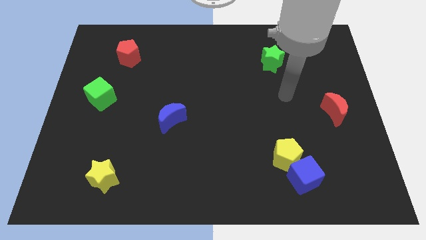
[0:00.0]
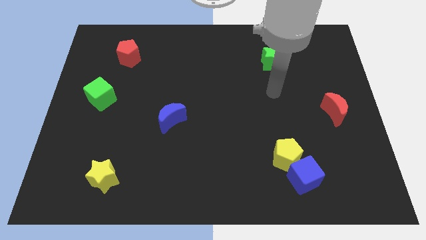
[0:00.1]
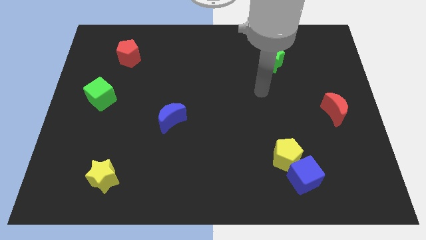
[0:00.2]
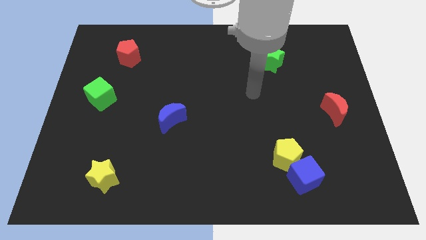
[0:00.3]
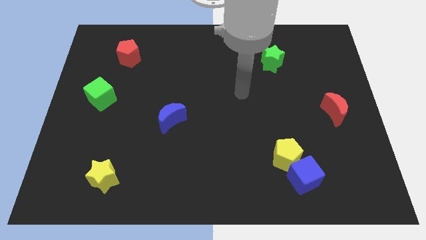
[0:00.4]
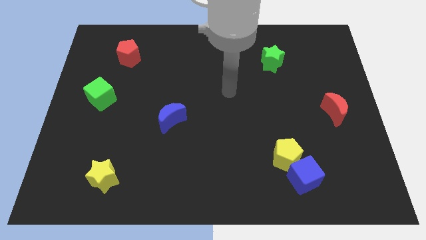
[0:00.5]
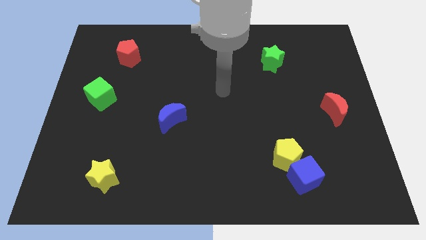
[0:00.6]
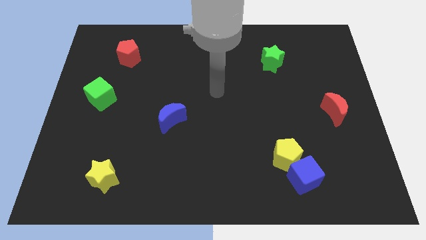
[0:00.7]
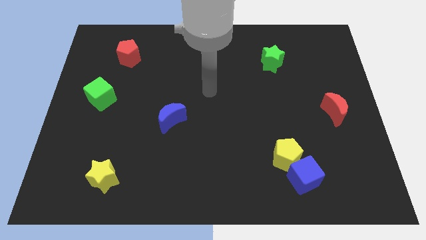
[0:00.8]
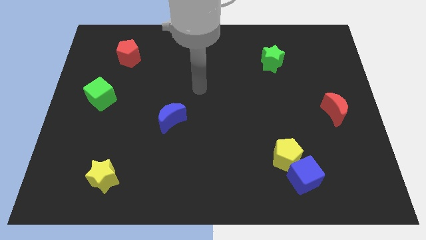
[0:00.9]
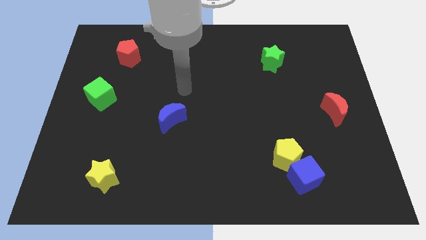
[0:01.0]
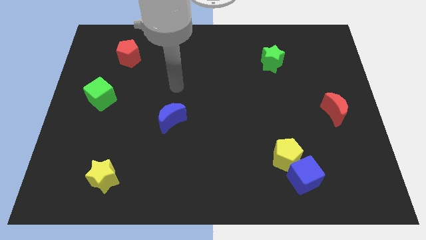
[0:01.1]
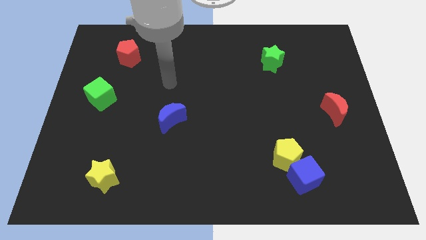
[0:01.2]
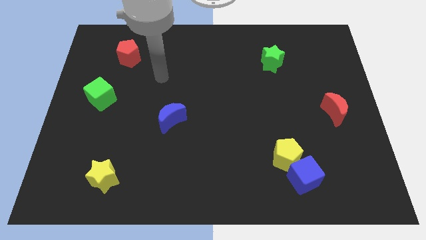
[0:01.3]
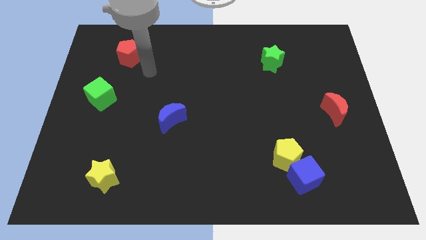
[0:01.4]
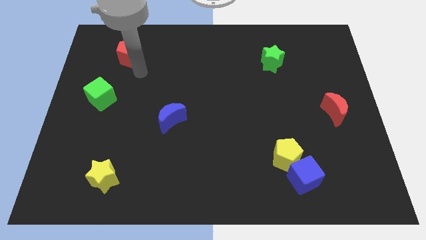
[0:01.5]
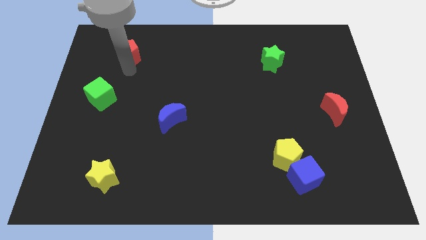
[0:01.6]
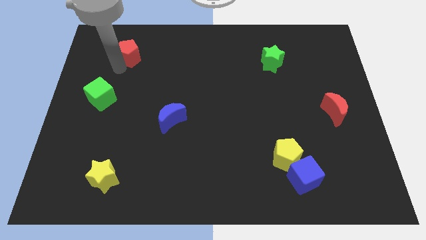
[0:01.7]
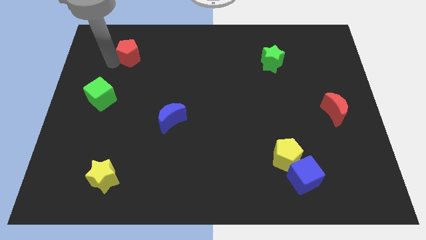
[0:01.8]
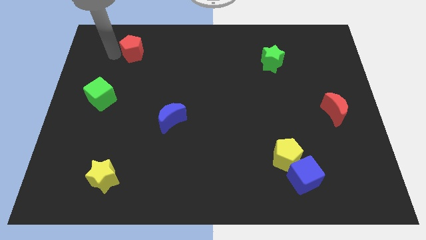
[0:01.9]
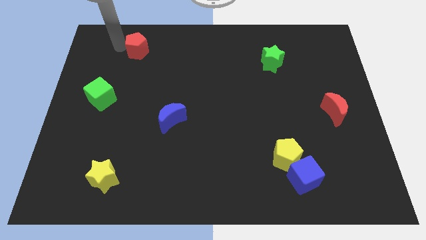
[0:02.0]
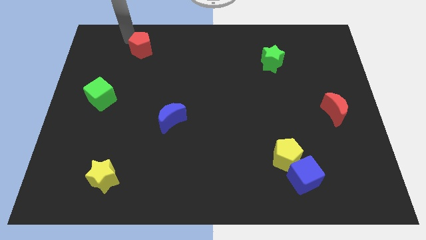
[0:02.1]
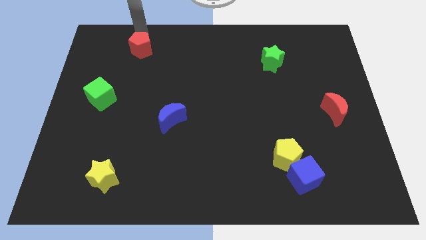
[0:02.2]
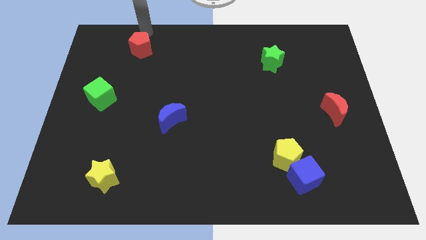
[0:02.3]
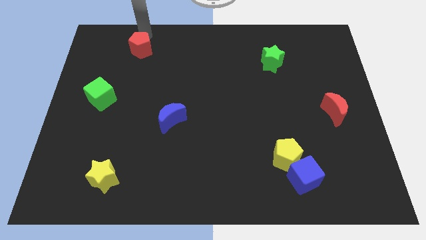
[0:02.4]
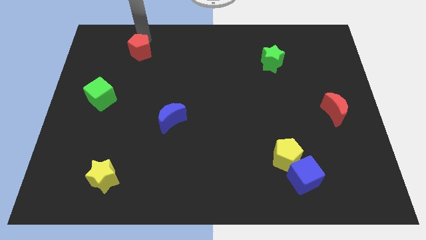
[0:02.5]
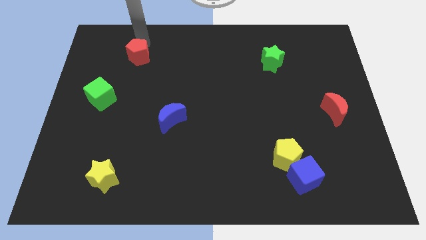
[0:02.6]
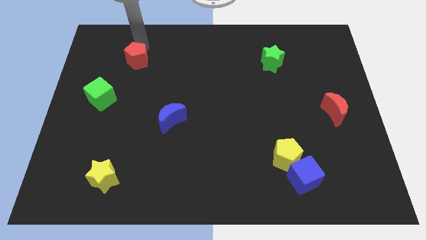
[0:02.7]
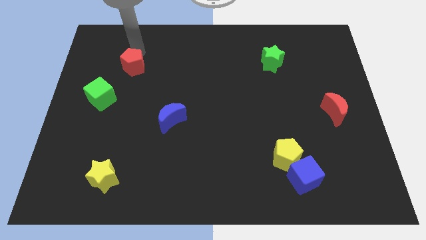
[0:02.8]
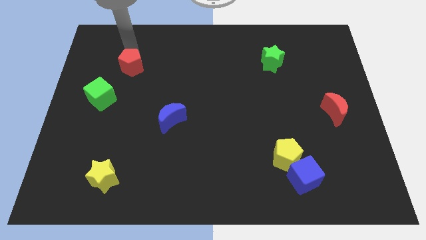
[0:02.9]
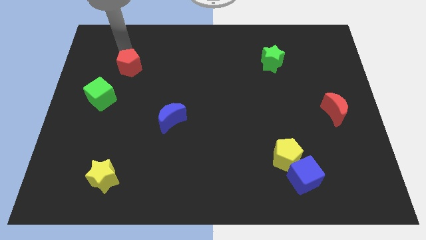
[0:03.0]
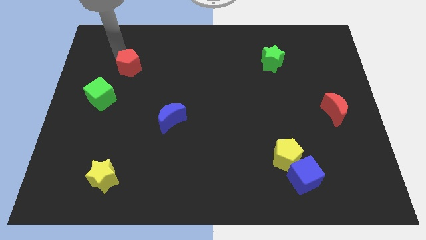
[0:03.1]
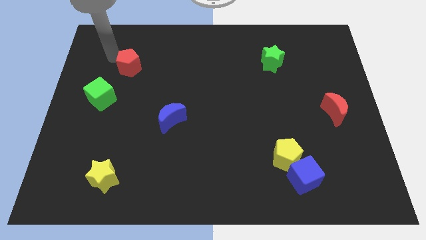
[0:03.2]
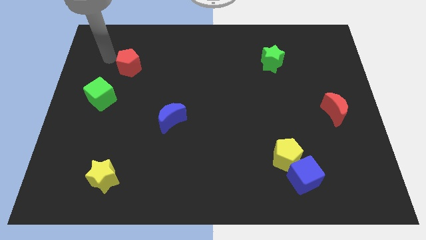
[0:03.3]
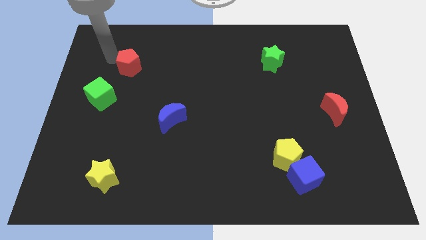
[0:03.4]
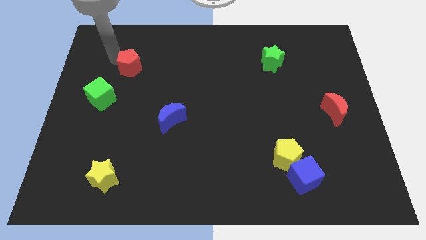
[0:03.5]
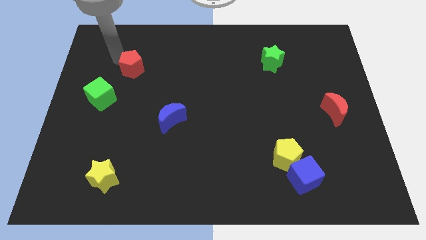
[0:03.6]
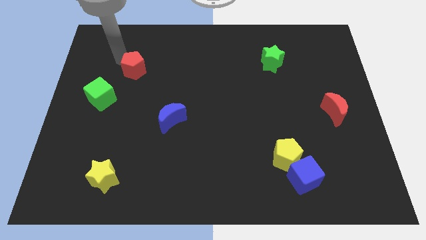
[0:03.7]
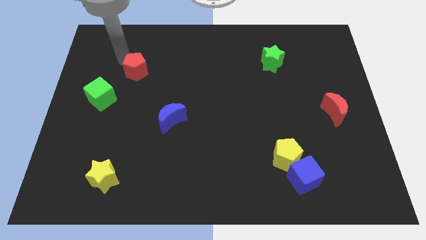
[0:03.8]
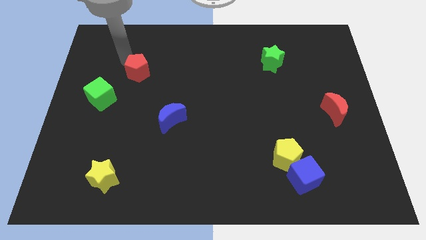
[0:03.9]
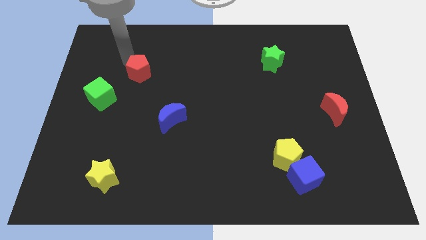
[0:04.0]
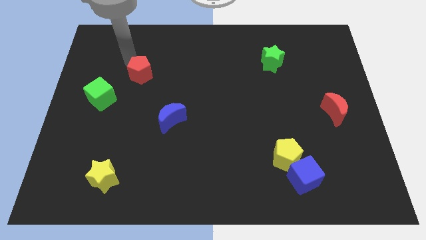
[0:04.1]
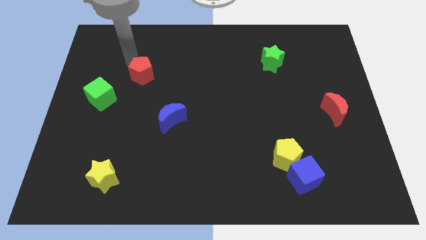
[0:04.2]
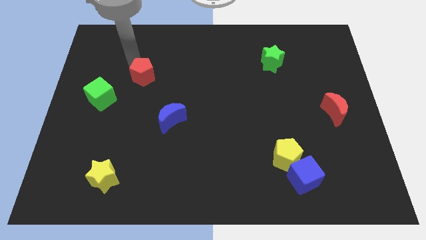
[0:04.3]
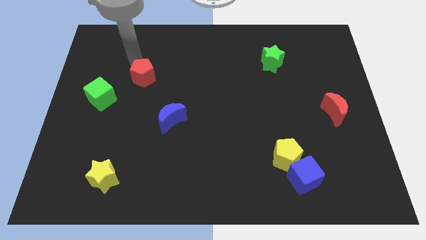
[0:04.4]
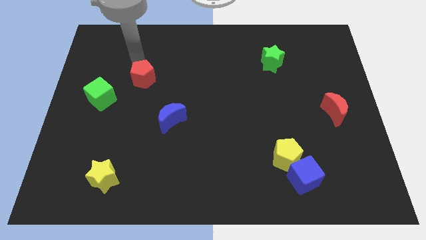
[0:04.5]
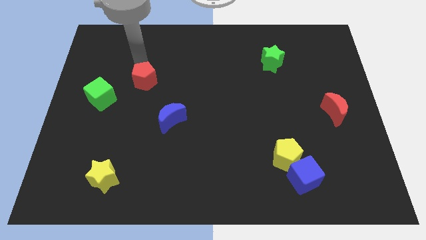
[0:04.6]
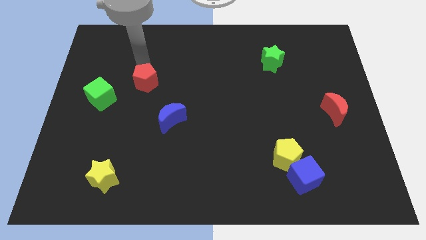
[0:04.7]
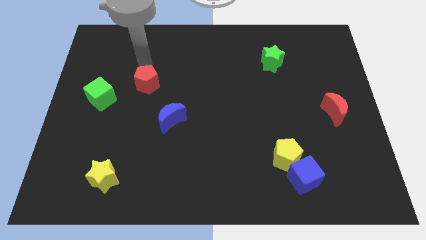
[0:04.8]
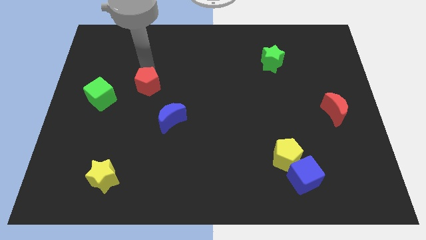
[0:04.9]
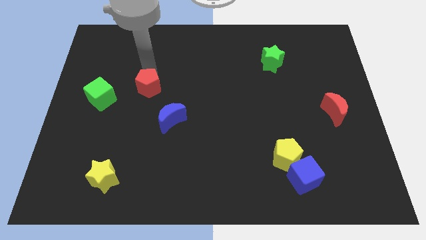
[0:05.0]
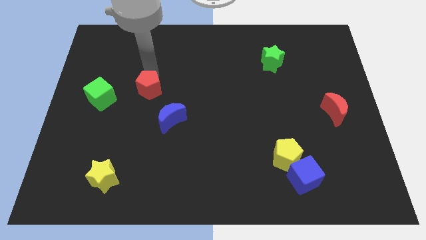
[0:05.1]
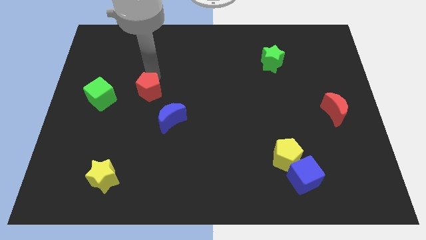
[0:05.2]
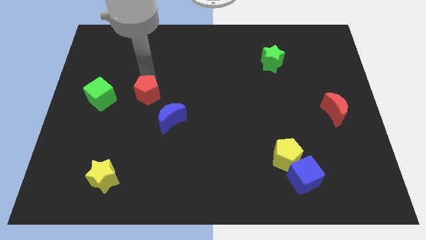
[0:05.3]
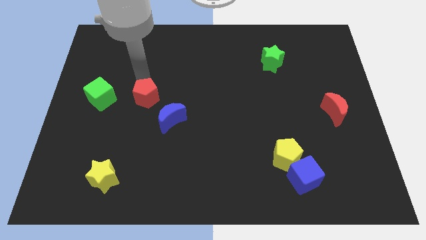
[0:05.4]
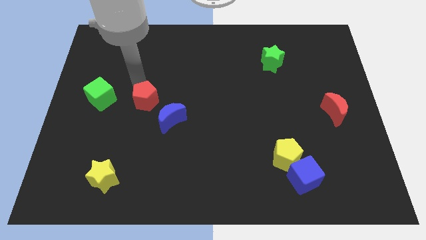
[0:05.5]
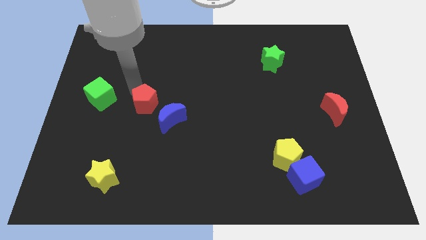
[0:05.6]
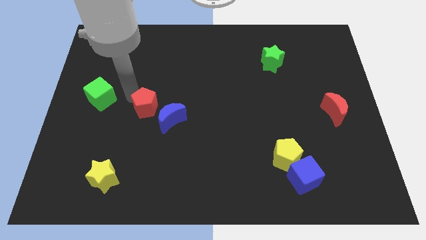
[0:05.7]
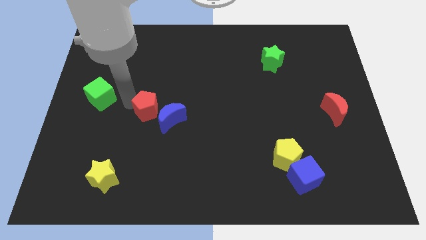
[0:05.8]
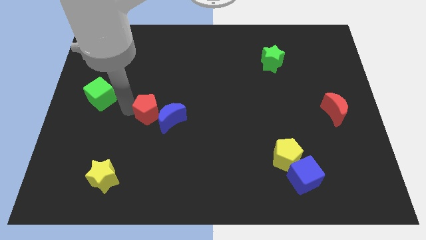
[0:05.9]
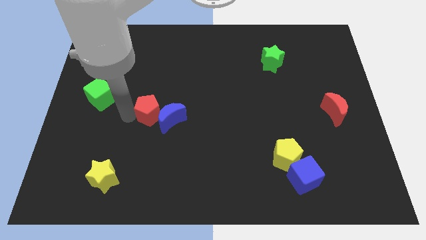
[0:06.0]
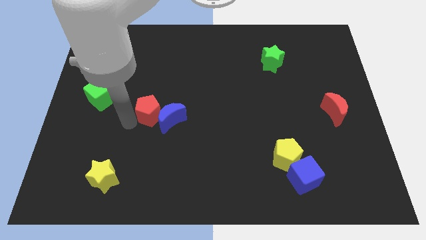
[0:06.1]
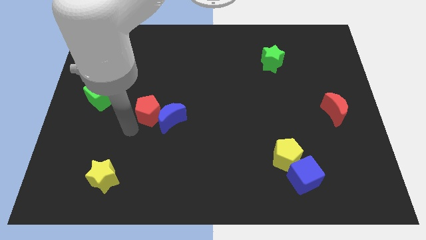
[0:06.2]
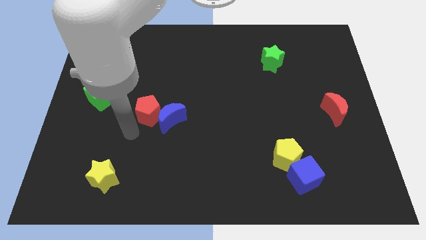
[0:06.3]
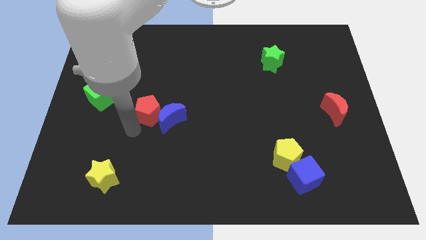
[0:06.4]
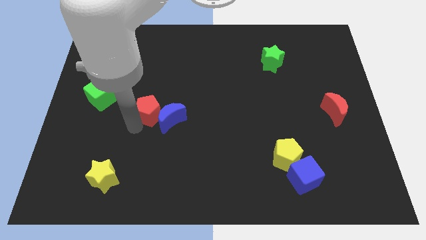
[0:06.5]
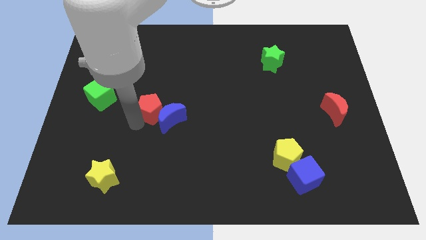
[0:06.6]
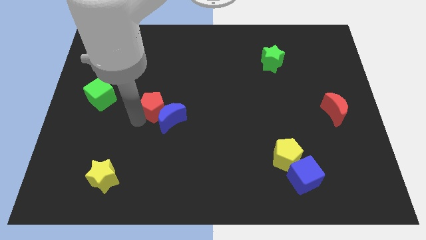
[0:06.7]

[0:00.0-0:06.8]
move the red pentagon above the blue moon
